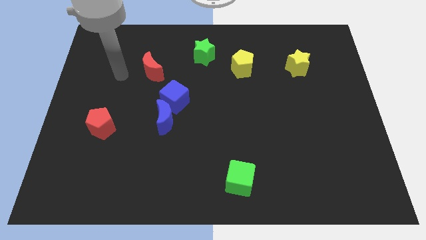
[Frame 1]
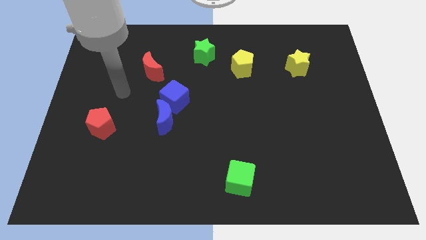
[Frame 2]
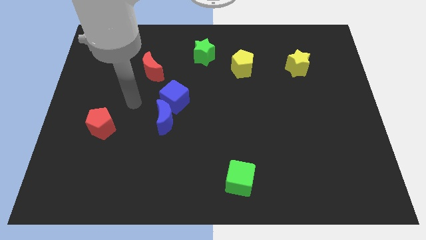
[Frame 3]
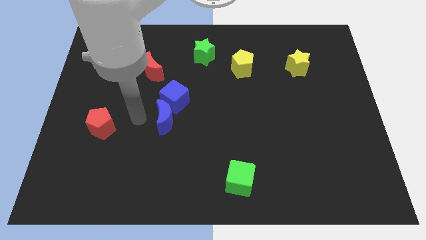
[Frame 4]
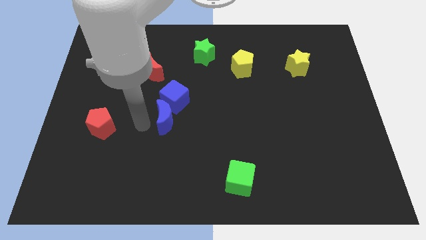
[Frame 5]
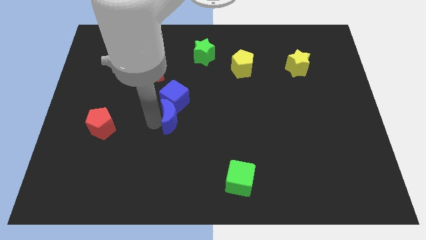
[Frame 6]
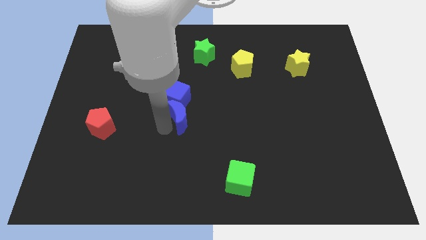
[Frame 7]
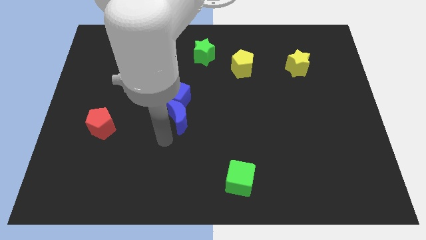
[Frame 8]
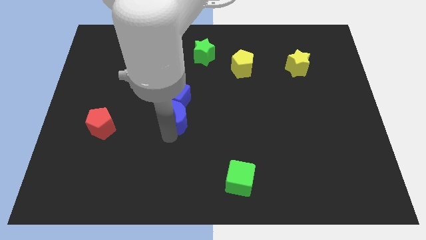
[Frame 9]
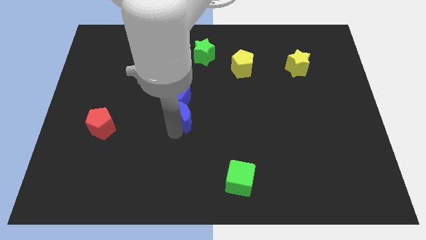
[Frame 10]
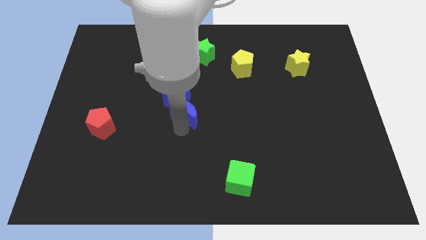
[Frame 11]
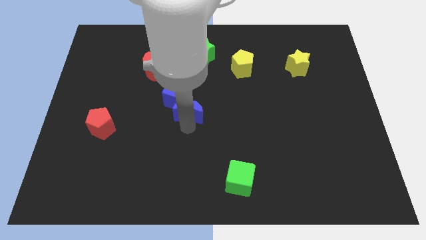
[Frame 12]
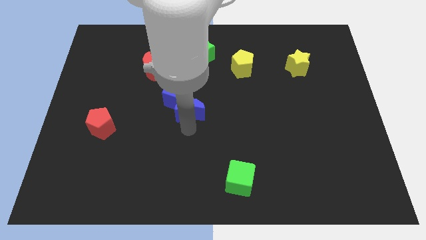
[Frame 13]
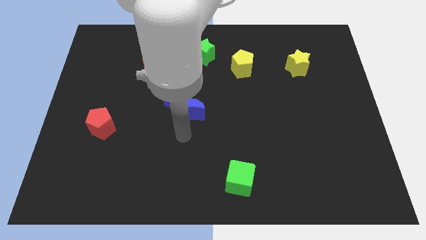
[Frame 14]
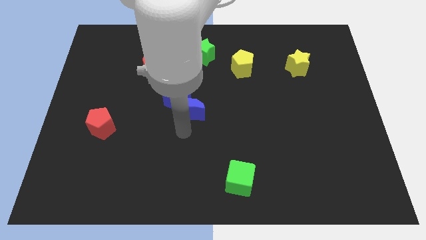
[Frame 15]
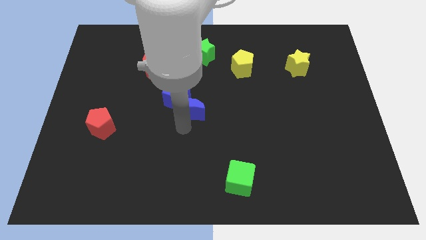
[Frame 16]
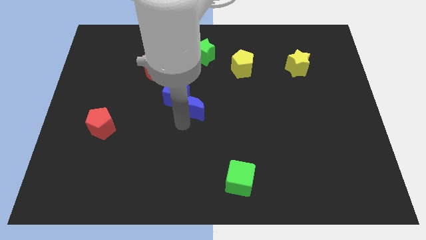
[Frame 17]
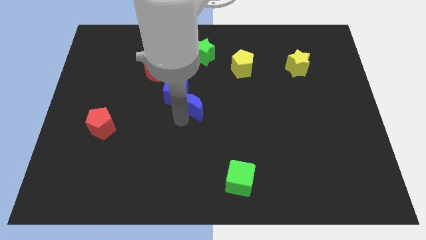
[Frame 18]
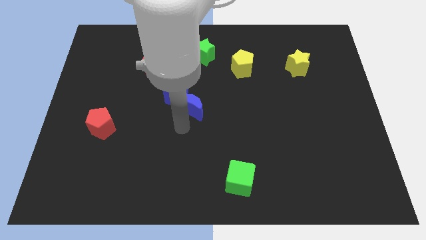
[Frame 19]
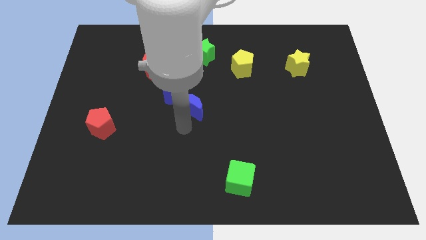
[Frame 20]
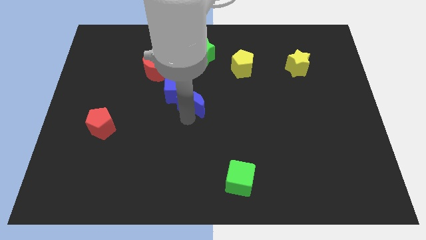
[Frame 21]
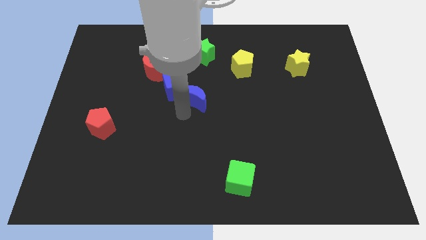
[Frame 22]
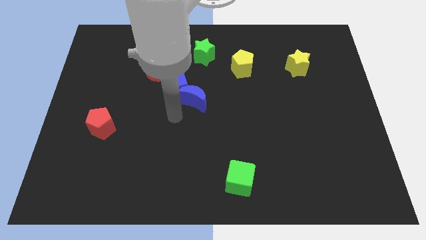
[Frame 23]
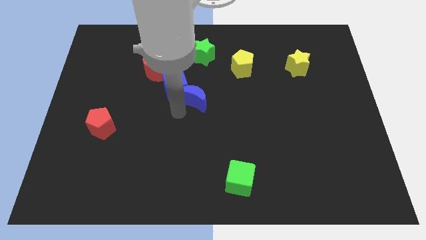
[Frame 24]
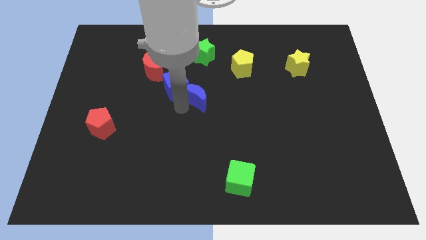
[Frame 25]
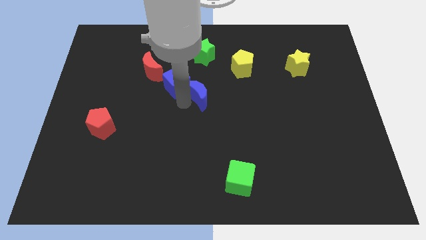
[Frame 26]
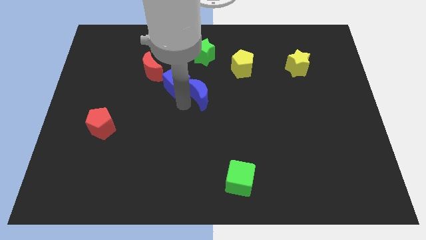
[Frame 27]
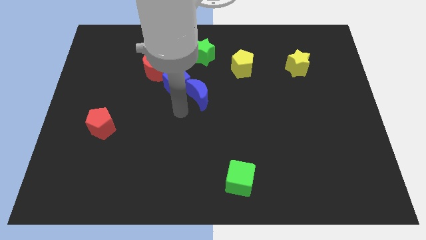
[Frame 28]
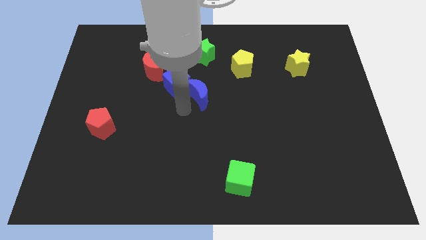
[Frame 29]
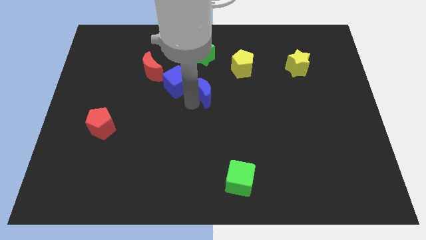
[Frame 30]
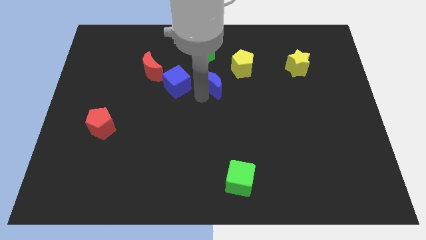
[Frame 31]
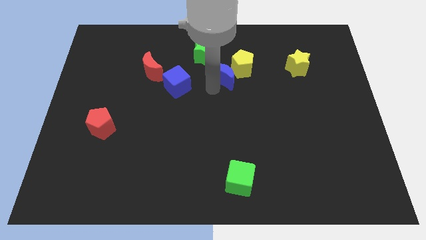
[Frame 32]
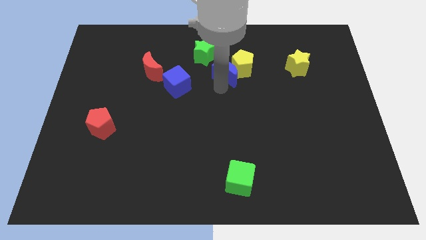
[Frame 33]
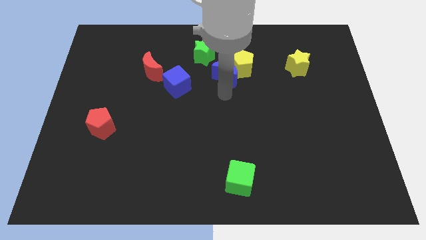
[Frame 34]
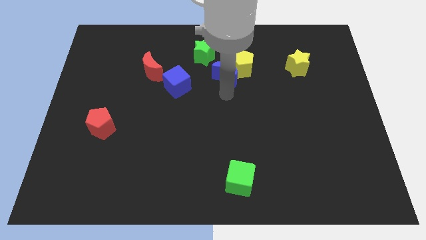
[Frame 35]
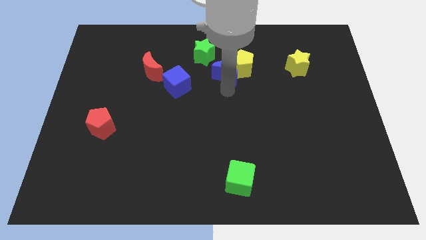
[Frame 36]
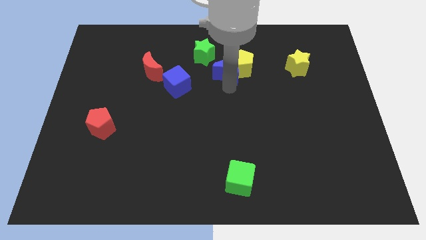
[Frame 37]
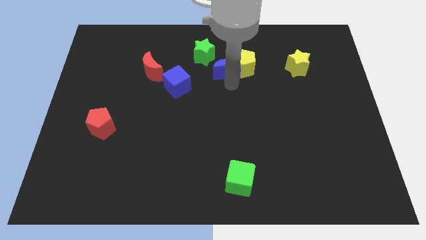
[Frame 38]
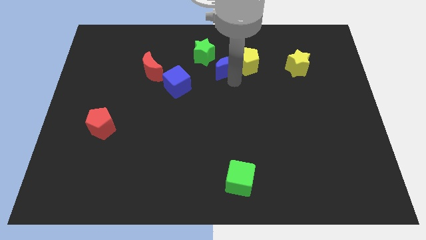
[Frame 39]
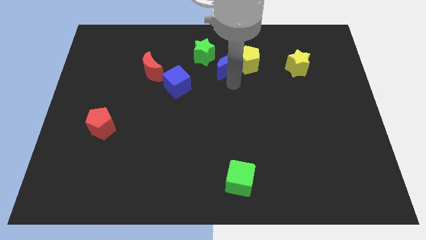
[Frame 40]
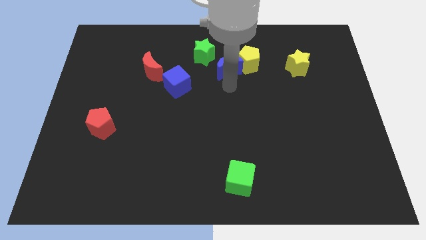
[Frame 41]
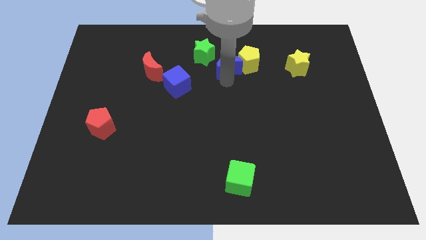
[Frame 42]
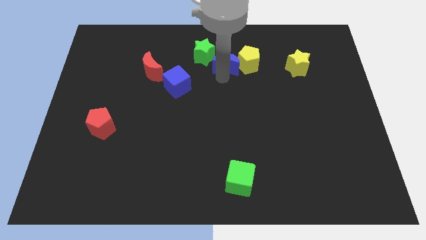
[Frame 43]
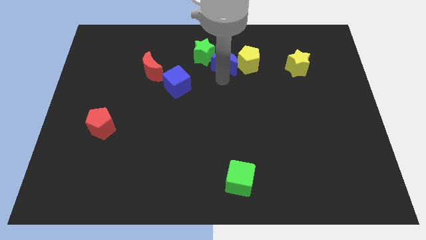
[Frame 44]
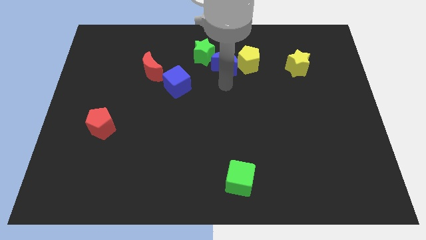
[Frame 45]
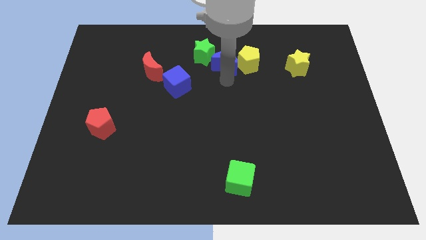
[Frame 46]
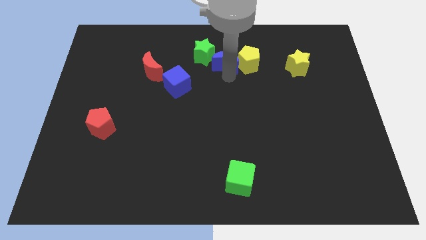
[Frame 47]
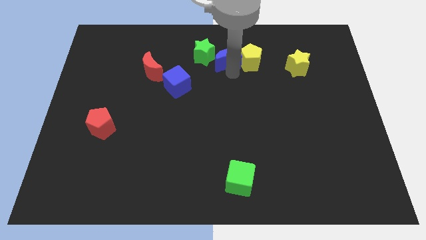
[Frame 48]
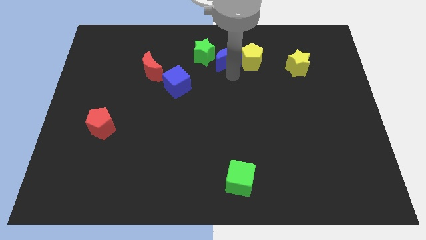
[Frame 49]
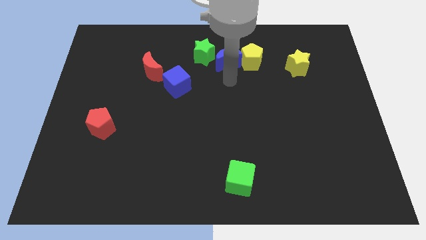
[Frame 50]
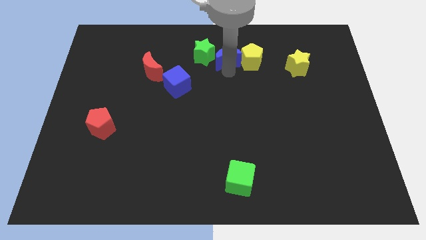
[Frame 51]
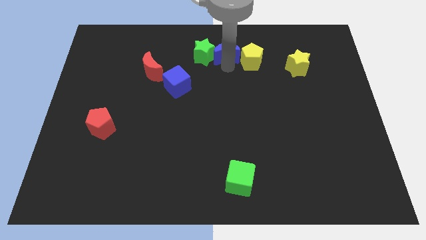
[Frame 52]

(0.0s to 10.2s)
push the blue moon to the top side

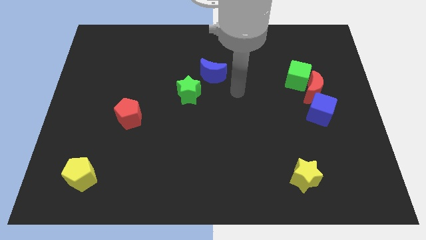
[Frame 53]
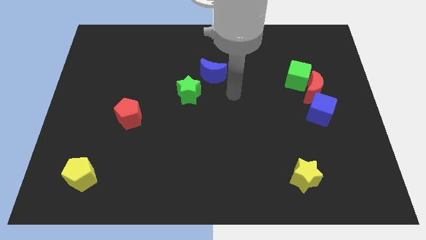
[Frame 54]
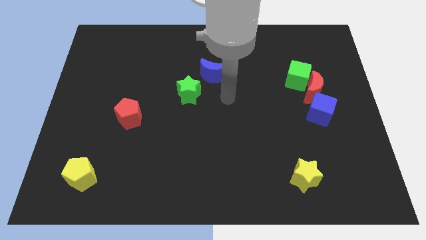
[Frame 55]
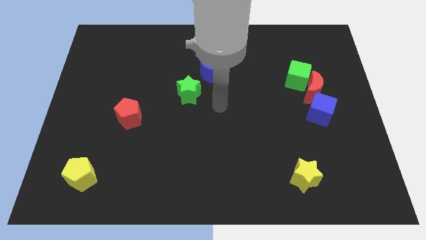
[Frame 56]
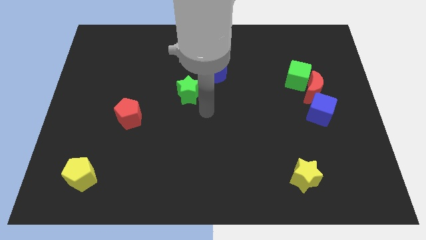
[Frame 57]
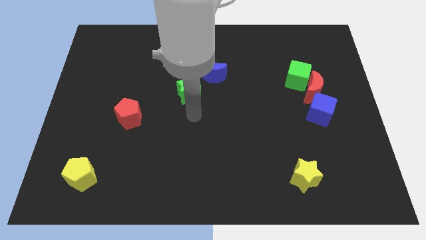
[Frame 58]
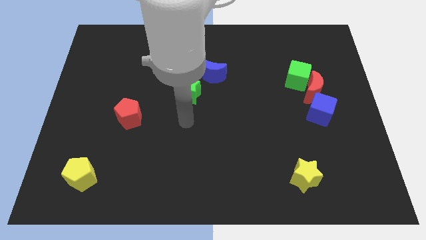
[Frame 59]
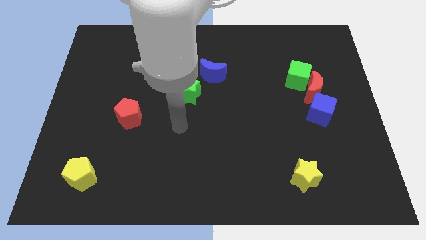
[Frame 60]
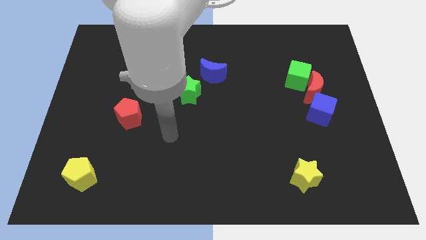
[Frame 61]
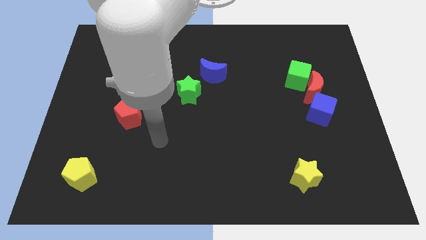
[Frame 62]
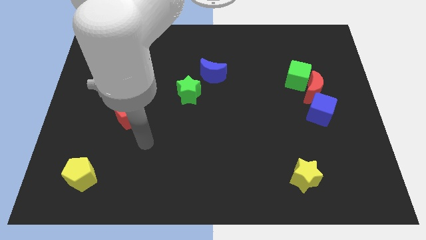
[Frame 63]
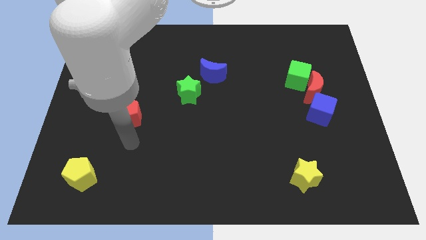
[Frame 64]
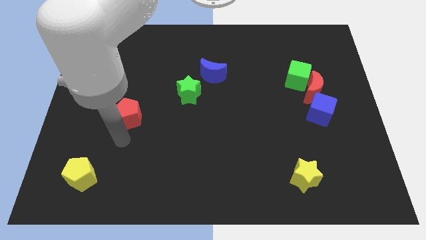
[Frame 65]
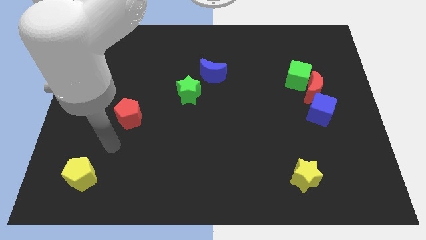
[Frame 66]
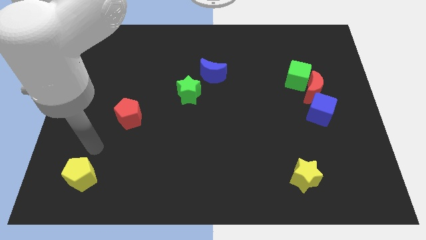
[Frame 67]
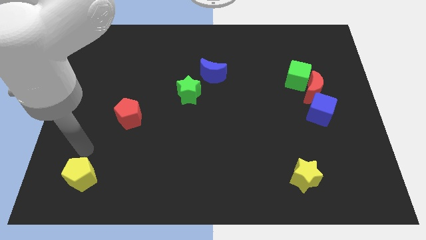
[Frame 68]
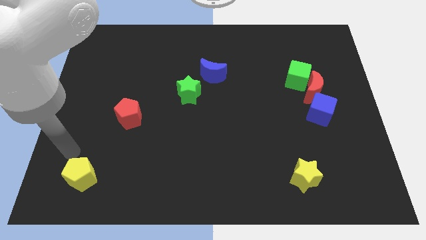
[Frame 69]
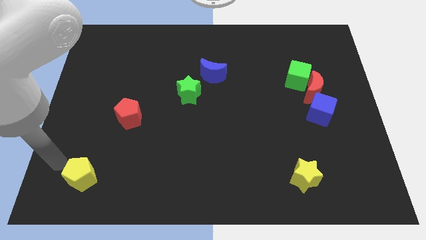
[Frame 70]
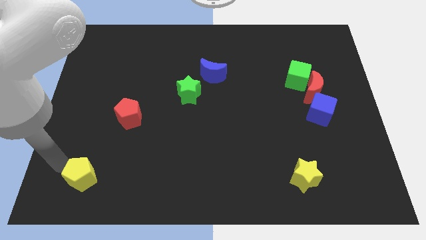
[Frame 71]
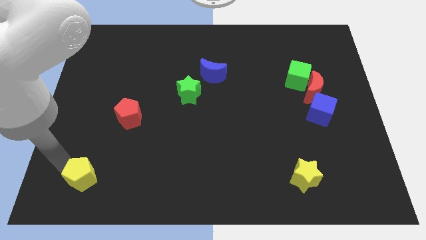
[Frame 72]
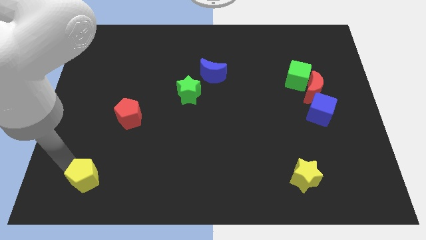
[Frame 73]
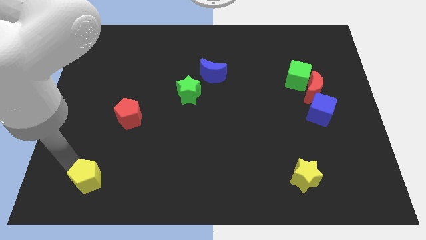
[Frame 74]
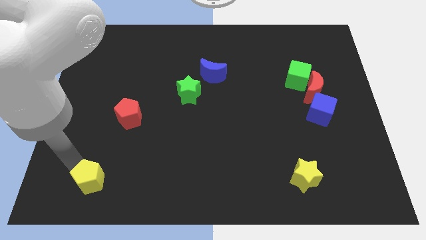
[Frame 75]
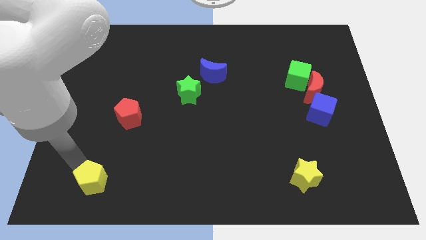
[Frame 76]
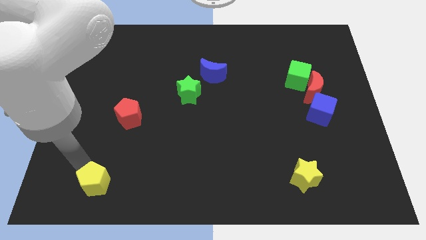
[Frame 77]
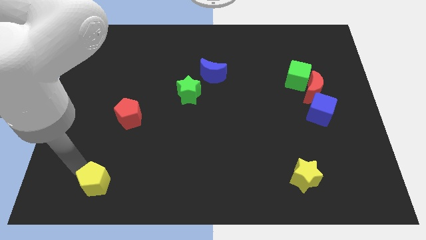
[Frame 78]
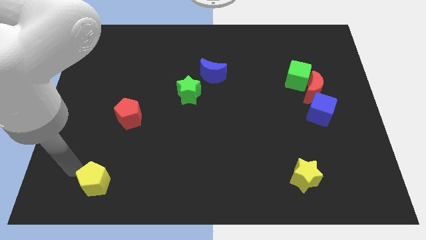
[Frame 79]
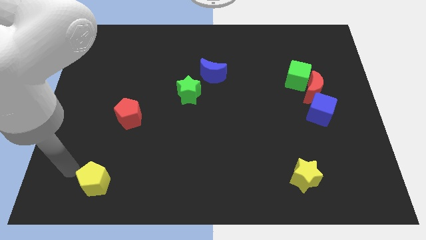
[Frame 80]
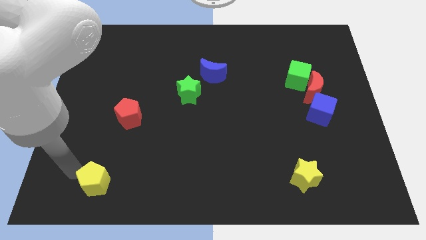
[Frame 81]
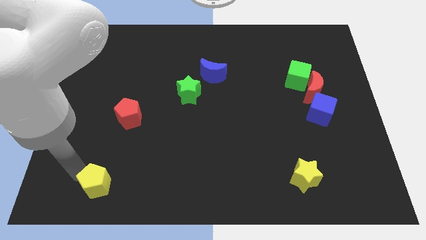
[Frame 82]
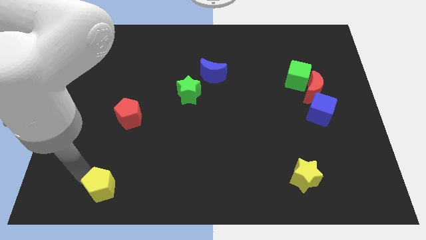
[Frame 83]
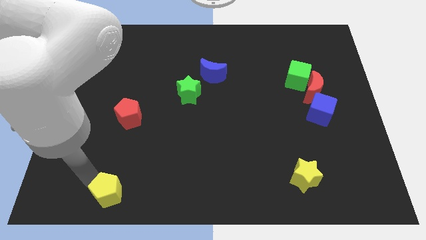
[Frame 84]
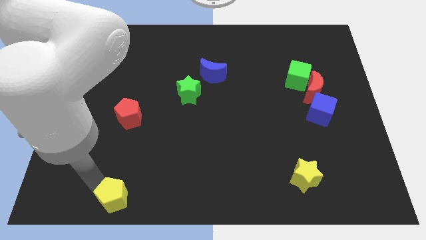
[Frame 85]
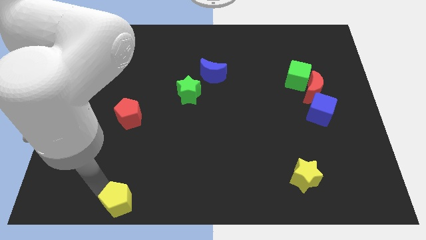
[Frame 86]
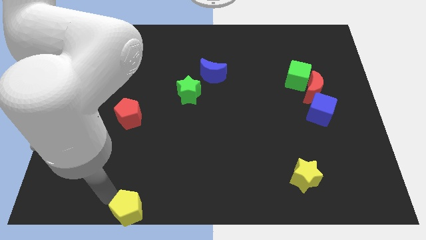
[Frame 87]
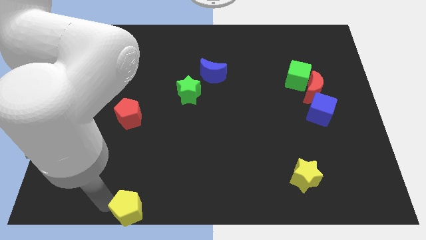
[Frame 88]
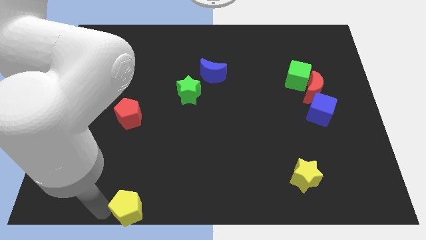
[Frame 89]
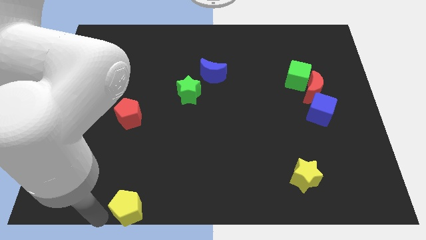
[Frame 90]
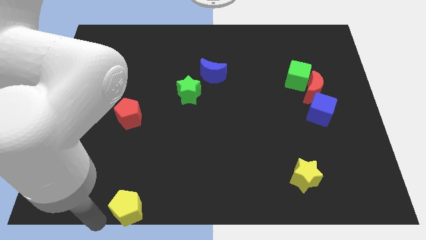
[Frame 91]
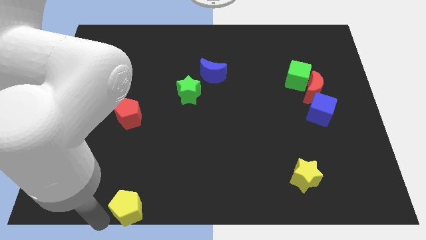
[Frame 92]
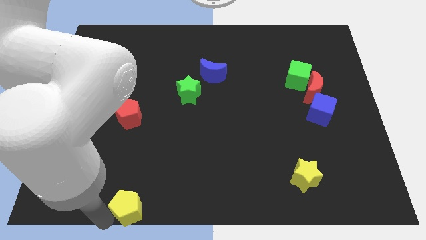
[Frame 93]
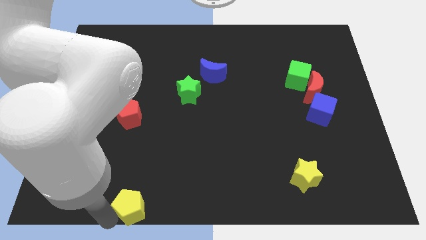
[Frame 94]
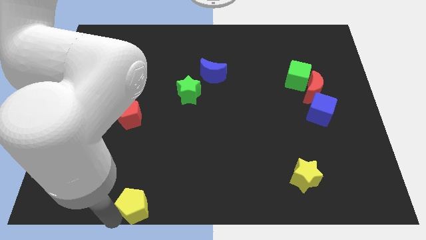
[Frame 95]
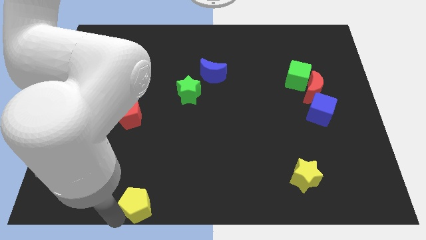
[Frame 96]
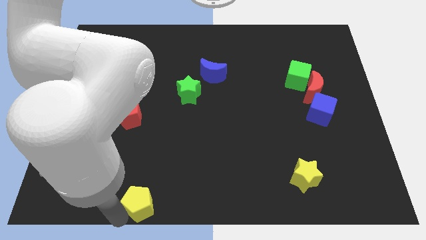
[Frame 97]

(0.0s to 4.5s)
slide the yellow pentagon to the bottom side
